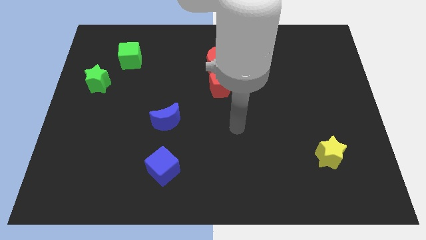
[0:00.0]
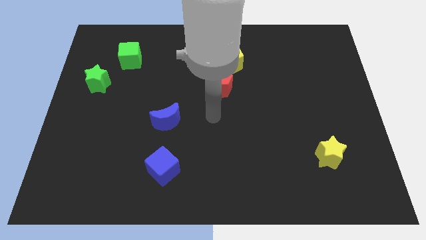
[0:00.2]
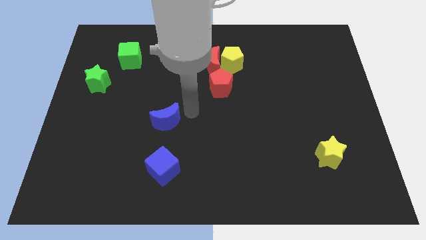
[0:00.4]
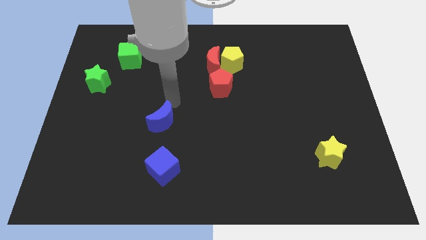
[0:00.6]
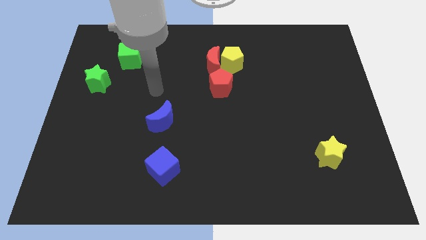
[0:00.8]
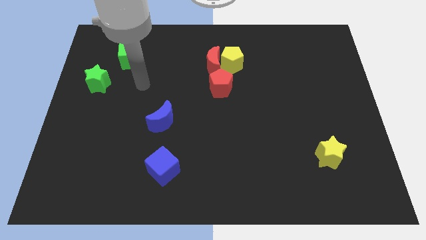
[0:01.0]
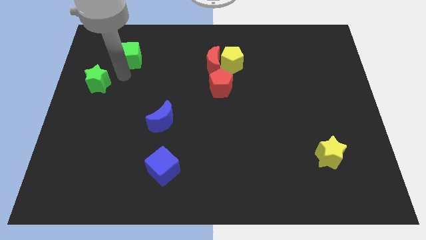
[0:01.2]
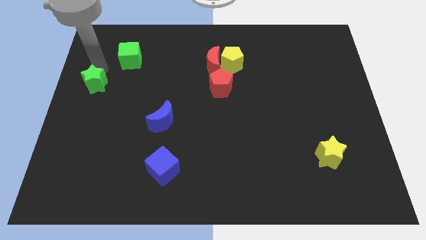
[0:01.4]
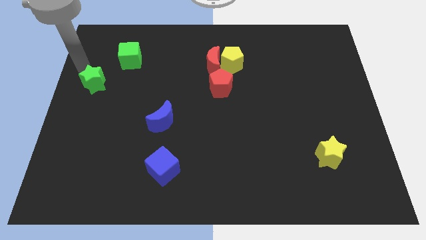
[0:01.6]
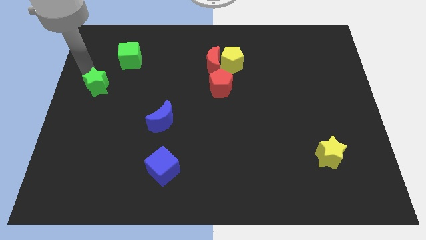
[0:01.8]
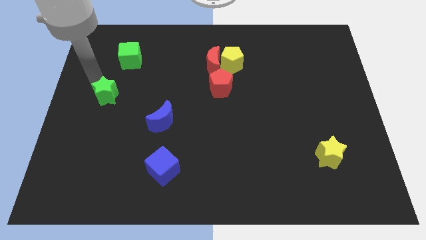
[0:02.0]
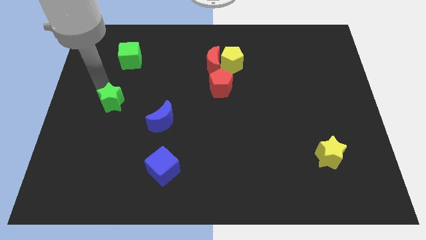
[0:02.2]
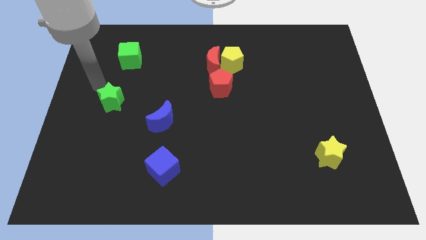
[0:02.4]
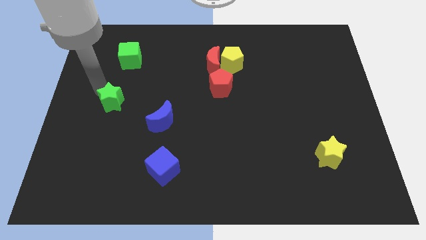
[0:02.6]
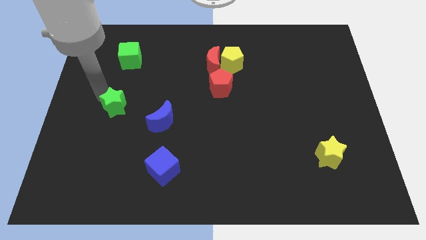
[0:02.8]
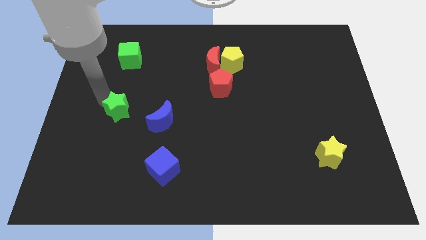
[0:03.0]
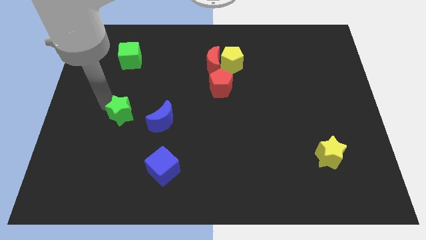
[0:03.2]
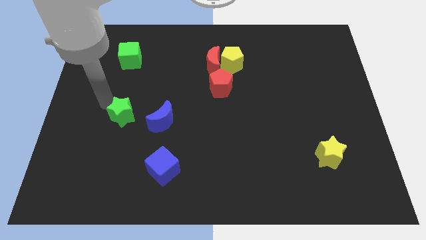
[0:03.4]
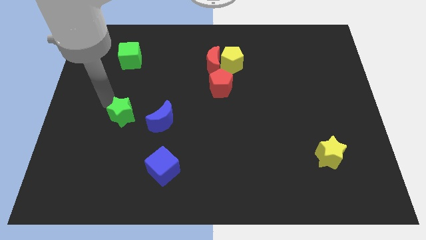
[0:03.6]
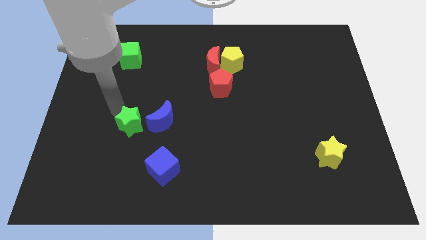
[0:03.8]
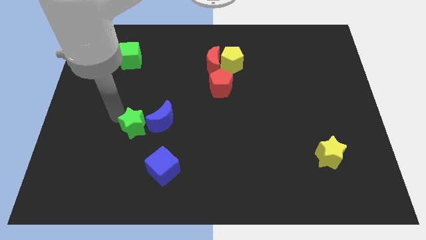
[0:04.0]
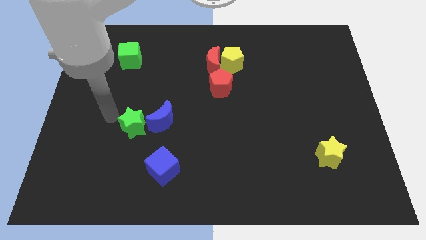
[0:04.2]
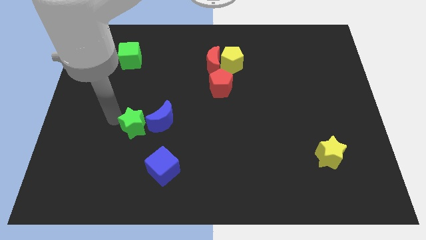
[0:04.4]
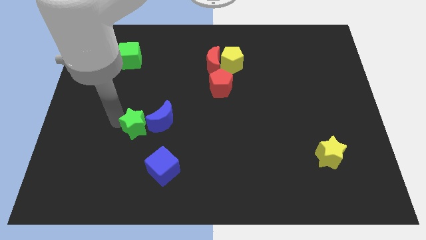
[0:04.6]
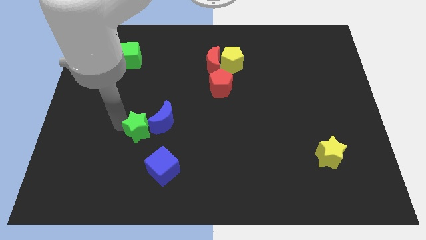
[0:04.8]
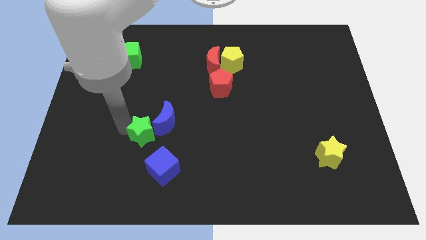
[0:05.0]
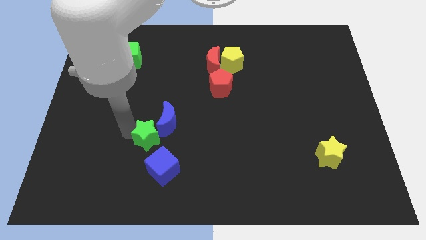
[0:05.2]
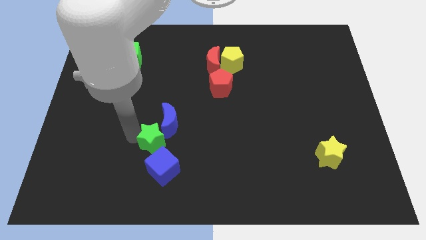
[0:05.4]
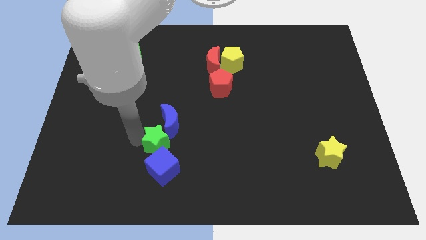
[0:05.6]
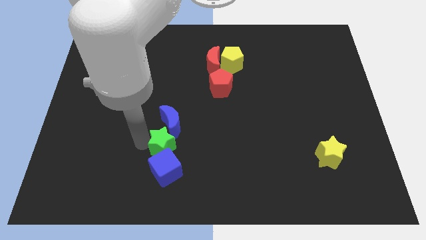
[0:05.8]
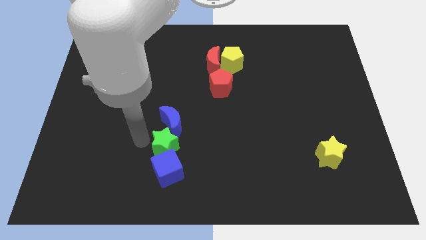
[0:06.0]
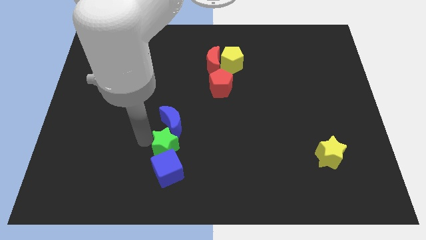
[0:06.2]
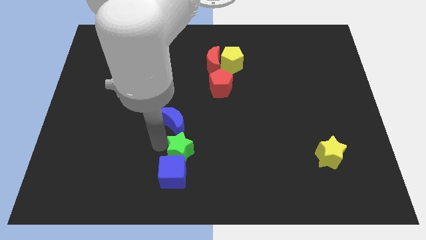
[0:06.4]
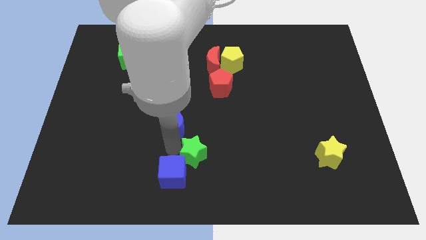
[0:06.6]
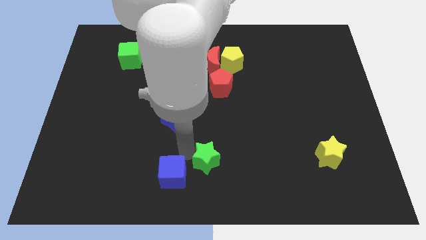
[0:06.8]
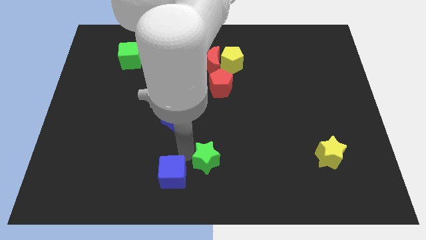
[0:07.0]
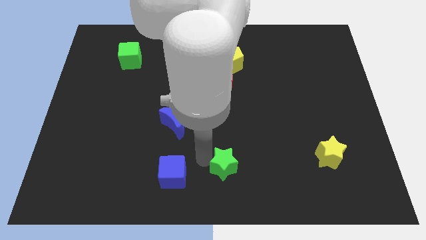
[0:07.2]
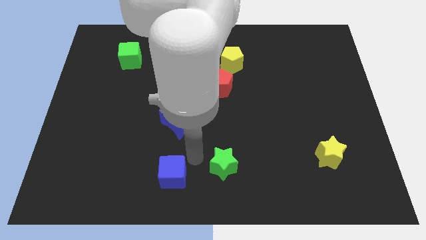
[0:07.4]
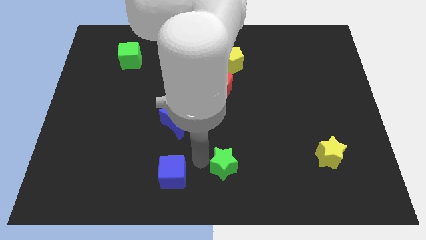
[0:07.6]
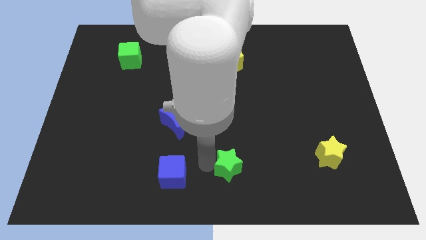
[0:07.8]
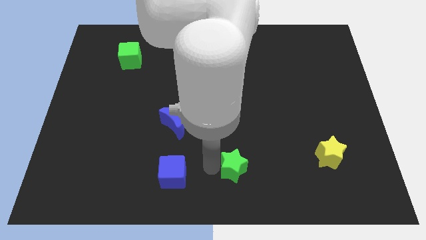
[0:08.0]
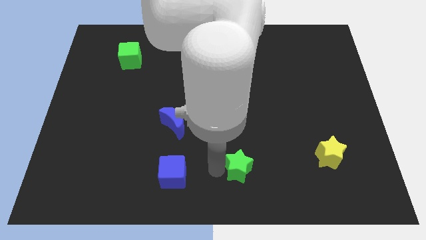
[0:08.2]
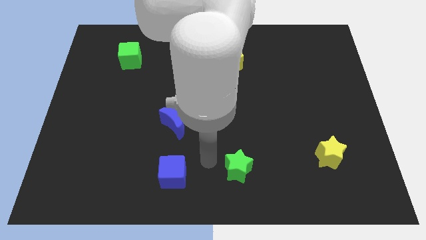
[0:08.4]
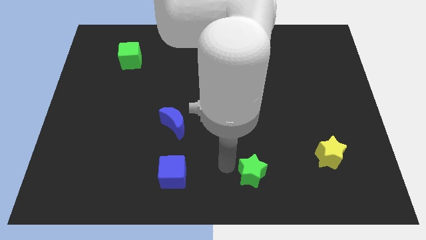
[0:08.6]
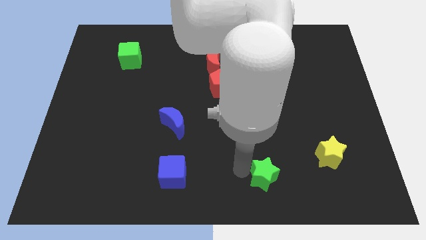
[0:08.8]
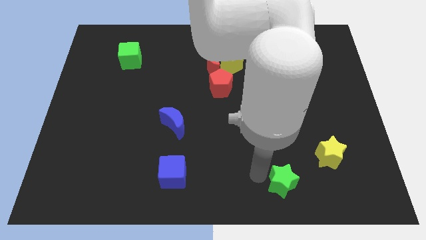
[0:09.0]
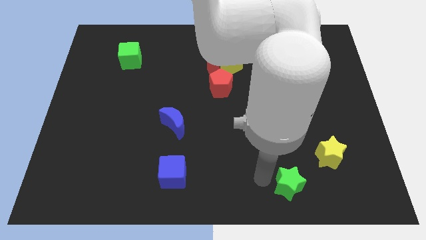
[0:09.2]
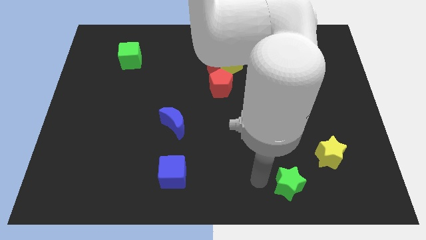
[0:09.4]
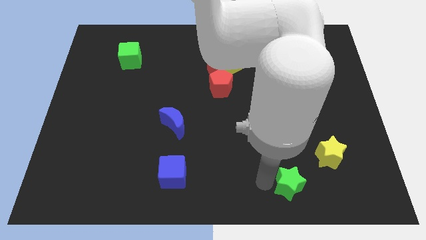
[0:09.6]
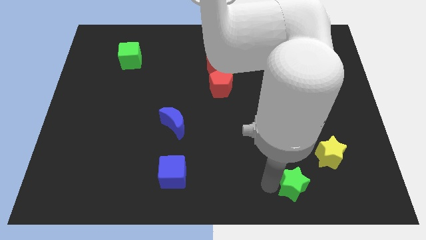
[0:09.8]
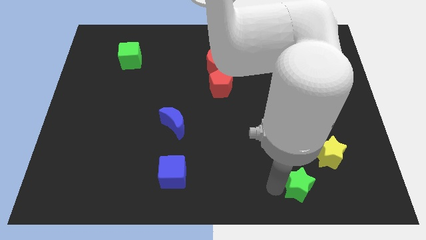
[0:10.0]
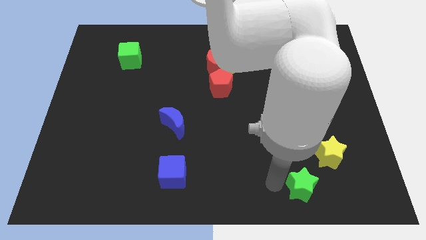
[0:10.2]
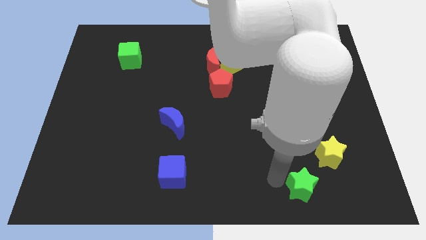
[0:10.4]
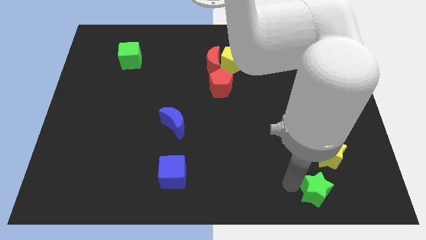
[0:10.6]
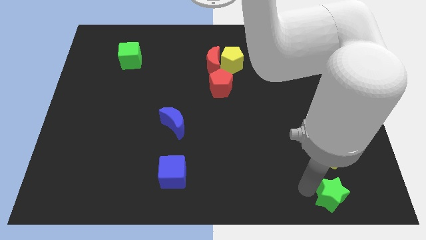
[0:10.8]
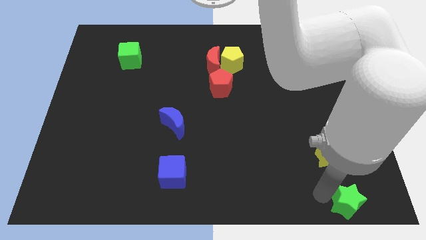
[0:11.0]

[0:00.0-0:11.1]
push the green star to the bottom right of the board
